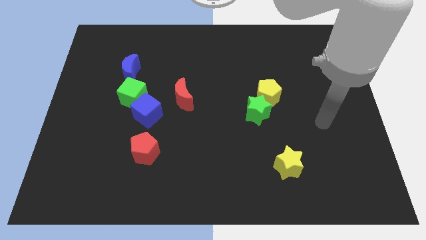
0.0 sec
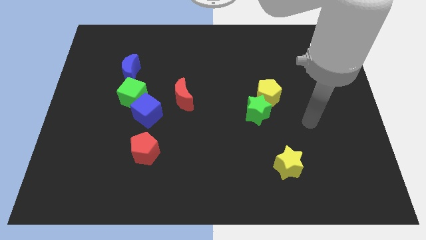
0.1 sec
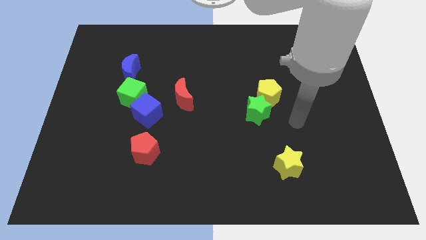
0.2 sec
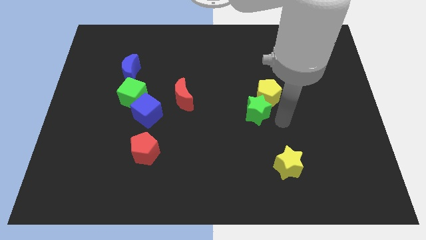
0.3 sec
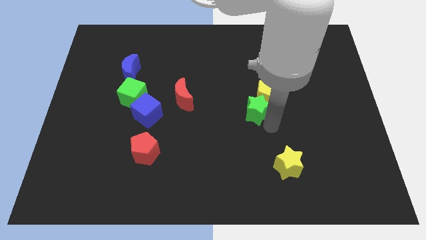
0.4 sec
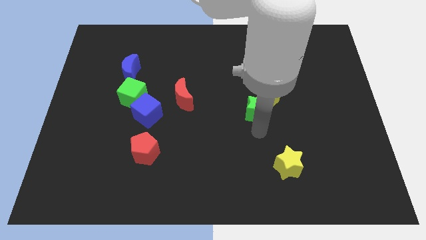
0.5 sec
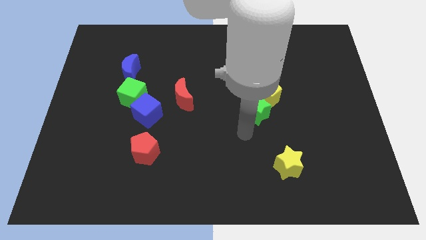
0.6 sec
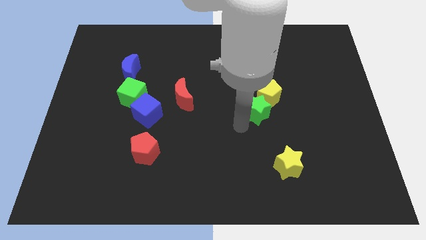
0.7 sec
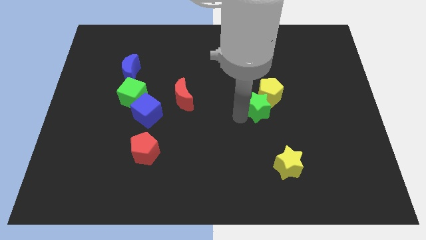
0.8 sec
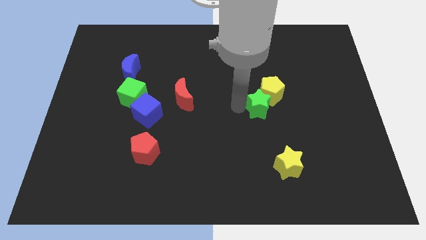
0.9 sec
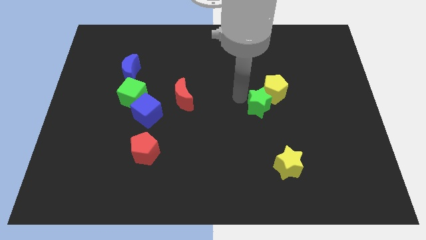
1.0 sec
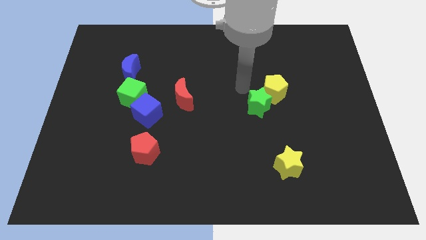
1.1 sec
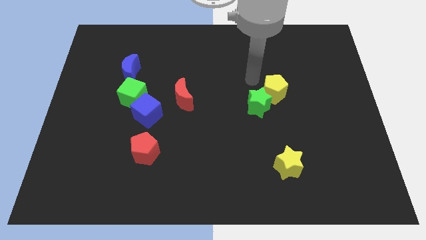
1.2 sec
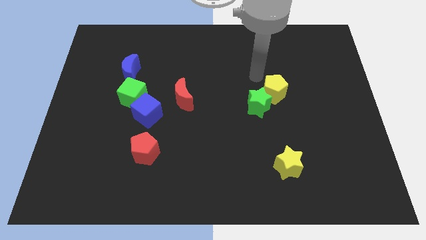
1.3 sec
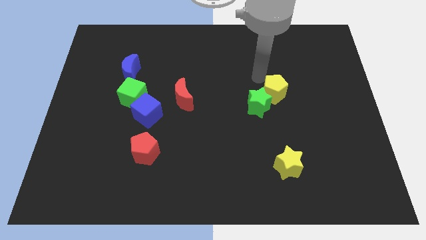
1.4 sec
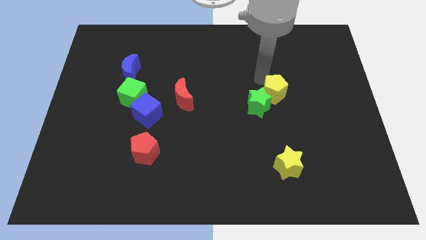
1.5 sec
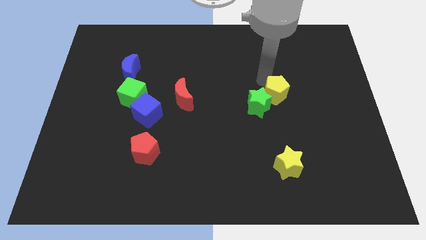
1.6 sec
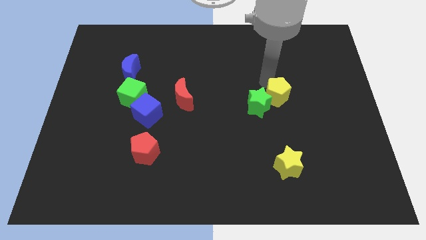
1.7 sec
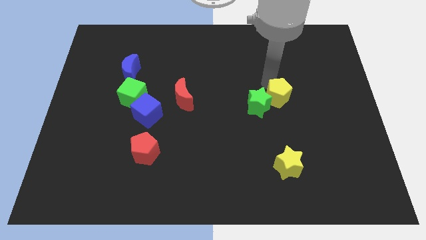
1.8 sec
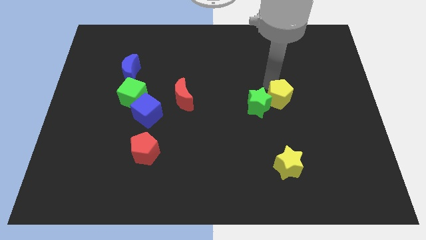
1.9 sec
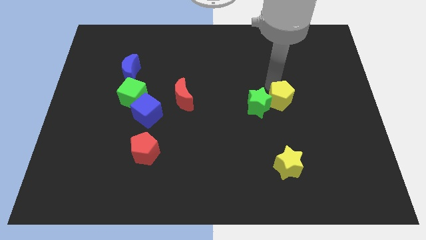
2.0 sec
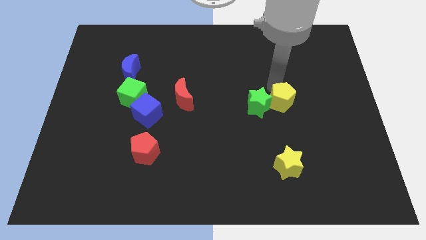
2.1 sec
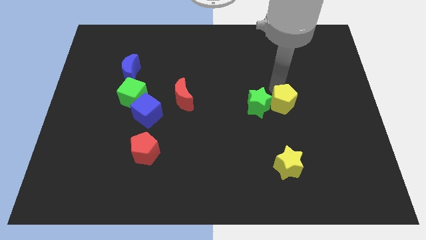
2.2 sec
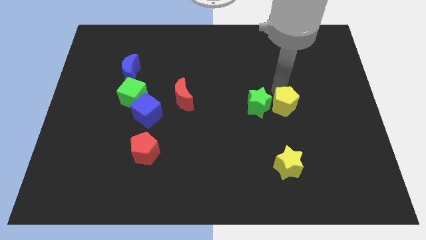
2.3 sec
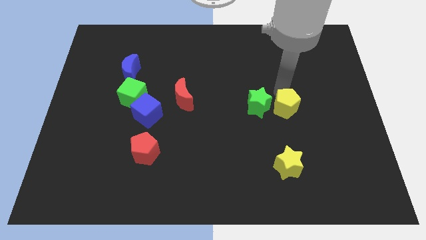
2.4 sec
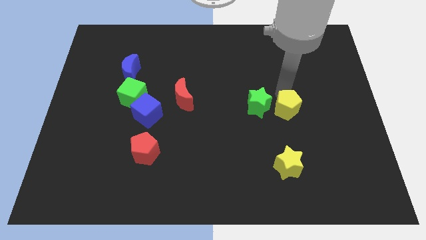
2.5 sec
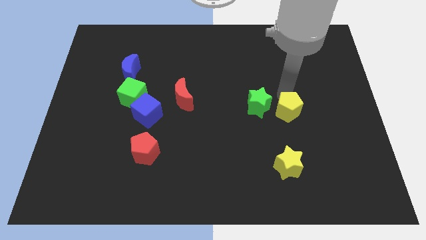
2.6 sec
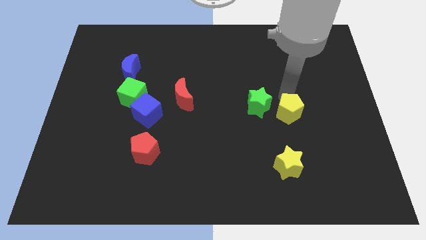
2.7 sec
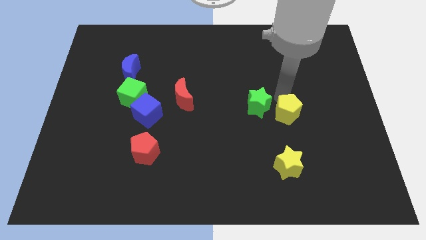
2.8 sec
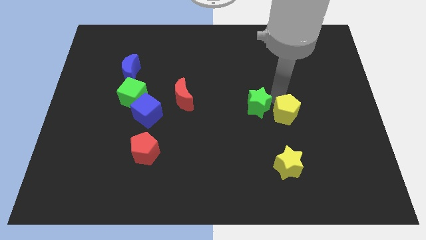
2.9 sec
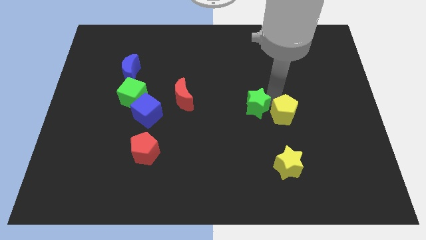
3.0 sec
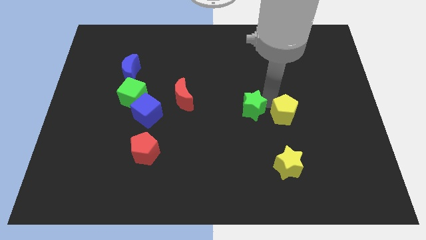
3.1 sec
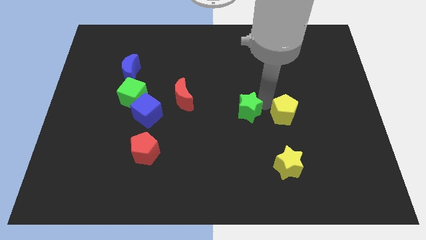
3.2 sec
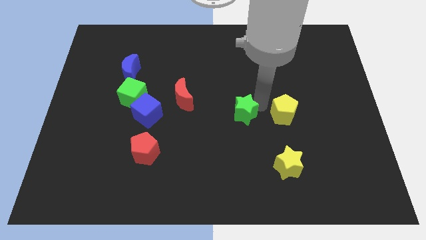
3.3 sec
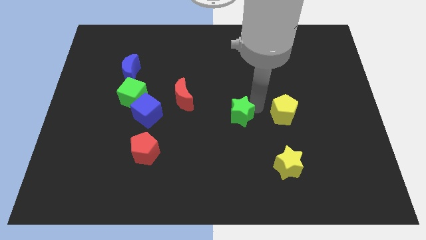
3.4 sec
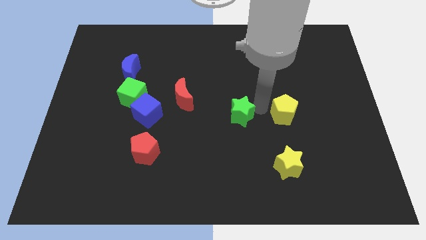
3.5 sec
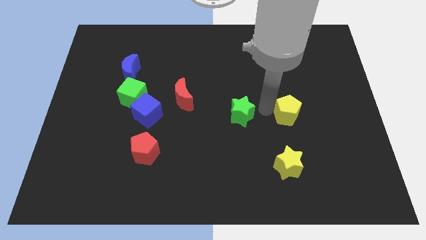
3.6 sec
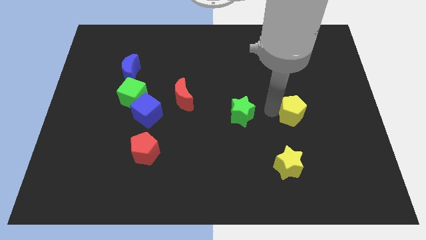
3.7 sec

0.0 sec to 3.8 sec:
slightly move the yellow pentagon downwards and right diagonally

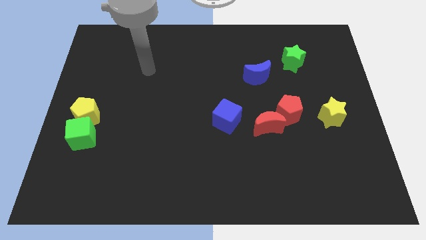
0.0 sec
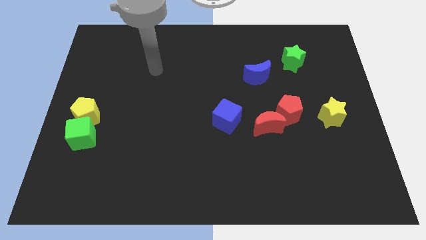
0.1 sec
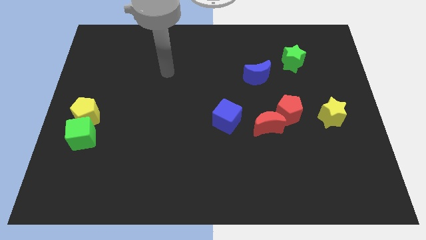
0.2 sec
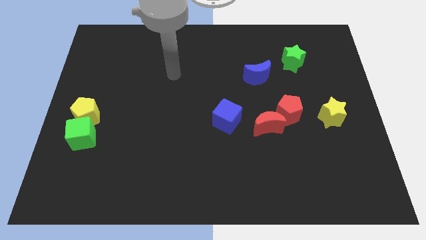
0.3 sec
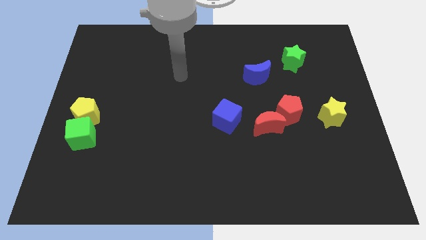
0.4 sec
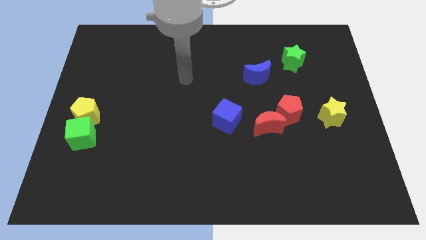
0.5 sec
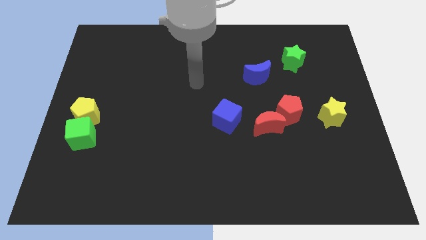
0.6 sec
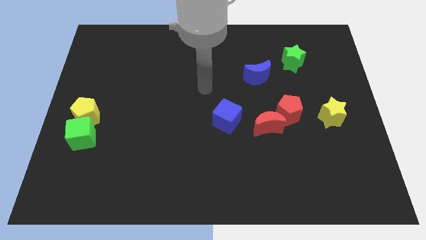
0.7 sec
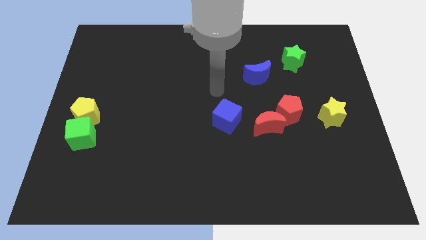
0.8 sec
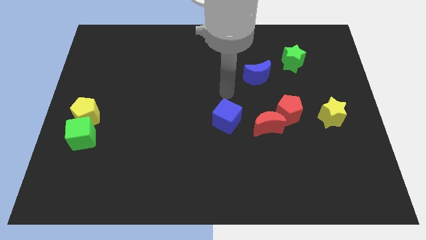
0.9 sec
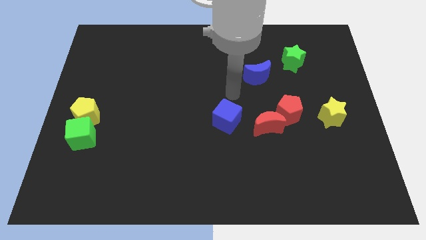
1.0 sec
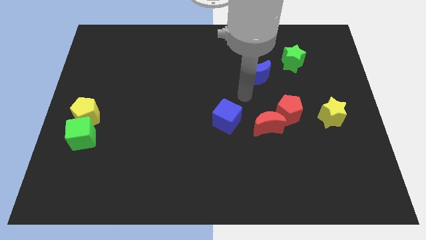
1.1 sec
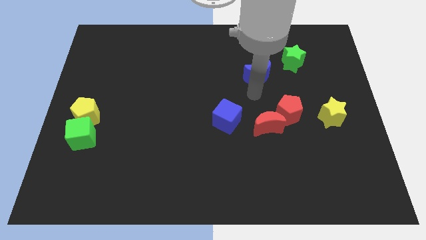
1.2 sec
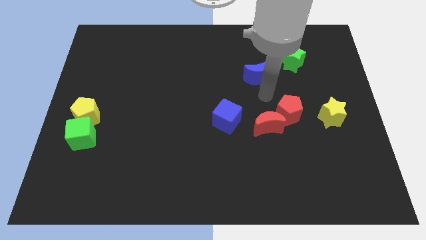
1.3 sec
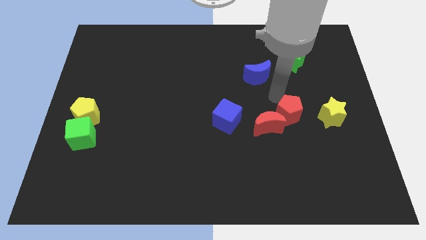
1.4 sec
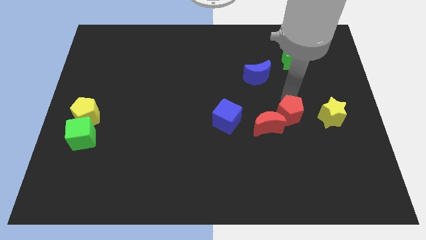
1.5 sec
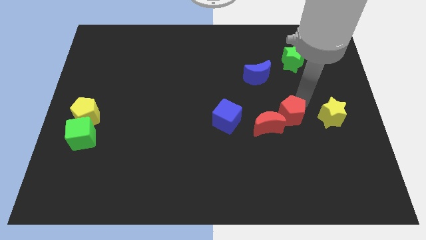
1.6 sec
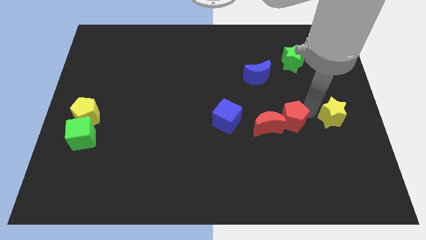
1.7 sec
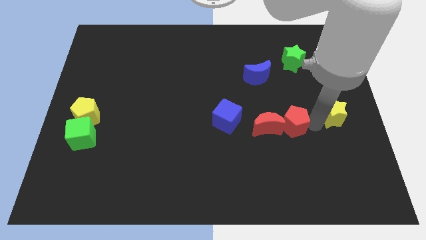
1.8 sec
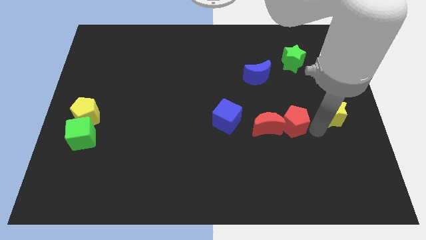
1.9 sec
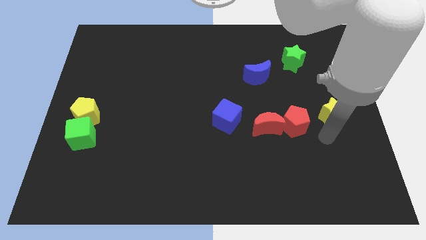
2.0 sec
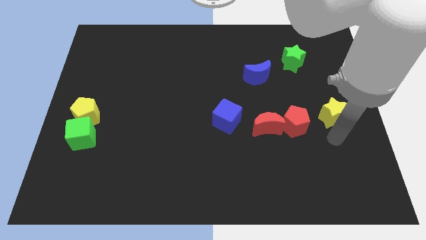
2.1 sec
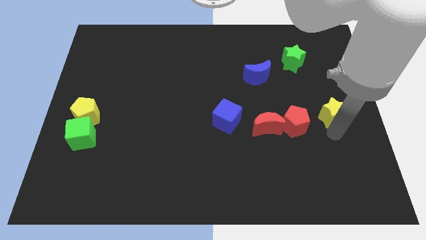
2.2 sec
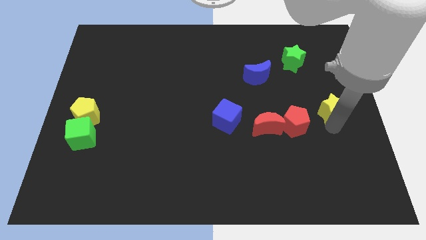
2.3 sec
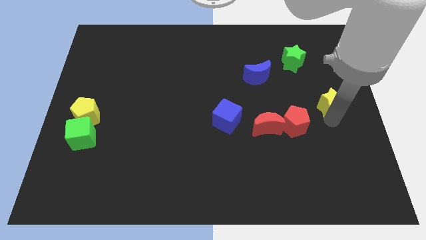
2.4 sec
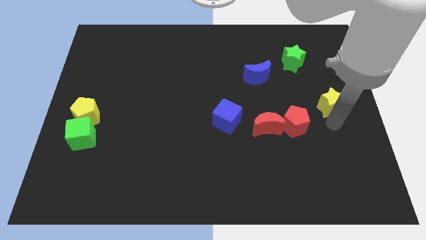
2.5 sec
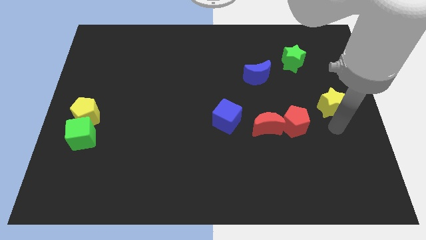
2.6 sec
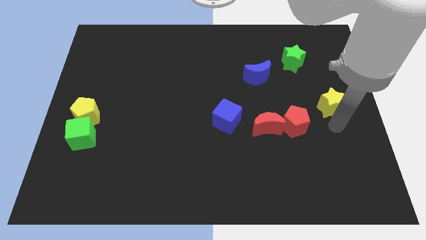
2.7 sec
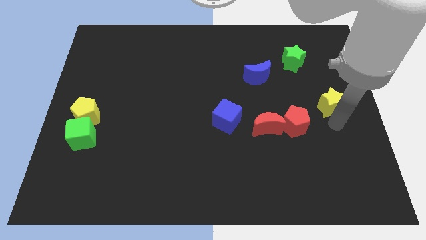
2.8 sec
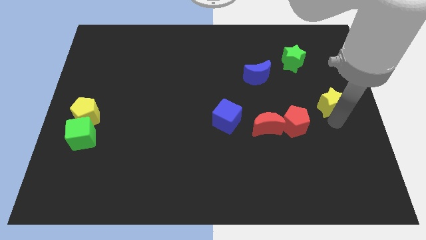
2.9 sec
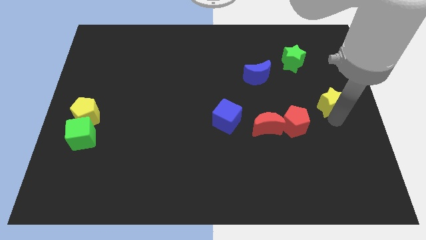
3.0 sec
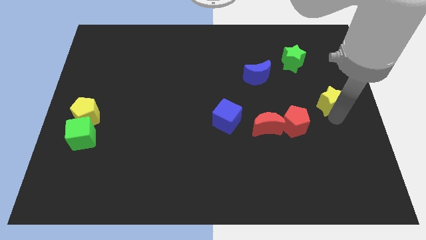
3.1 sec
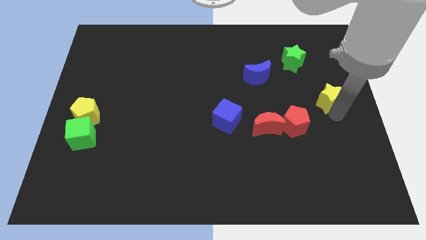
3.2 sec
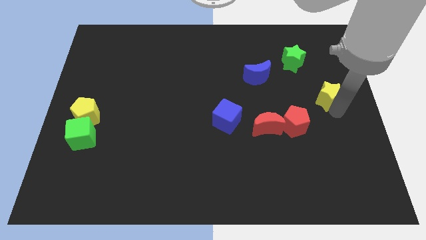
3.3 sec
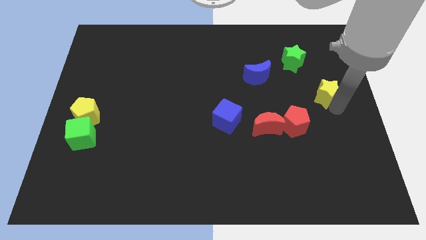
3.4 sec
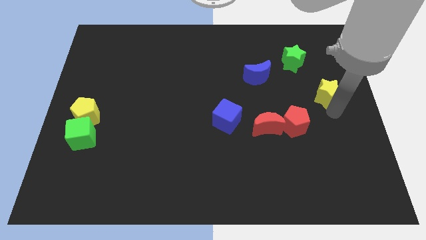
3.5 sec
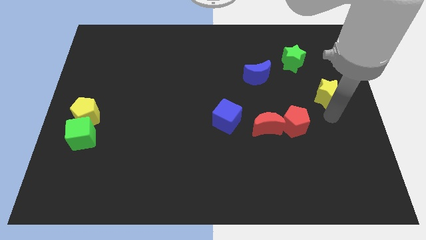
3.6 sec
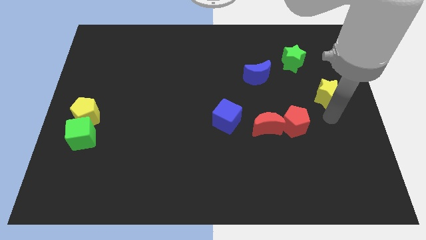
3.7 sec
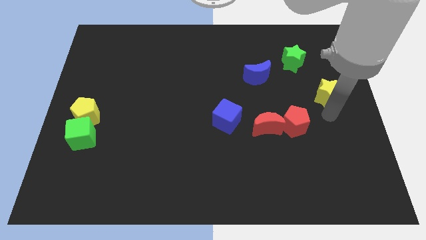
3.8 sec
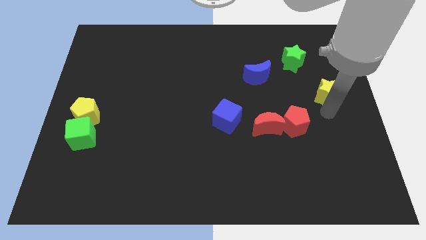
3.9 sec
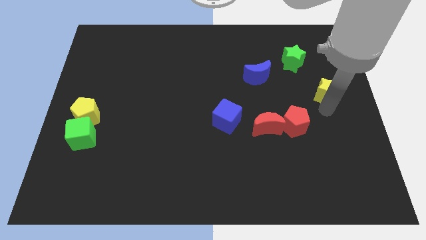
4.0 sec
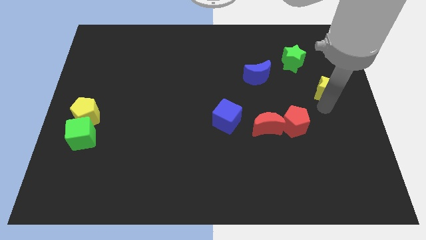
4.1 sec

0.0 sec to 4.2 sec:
push the yellow star upwards somewhat

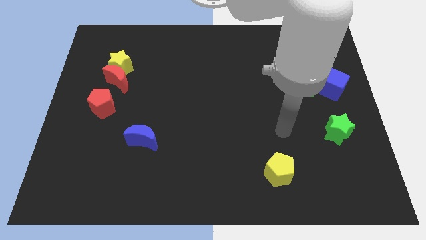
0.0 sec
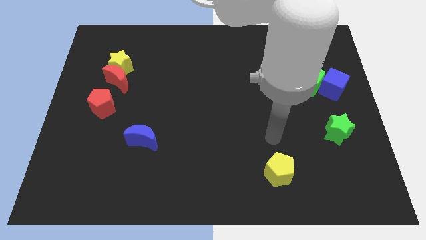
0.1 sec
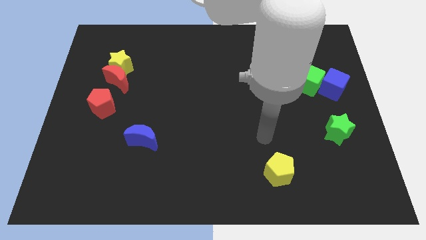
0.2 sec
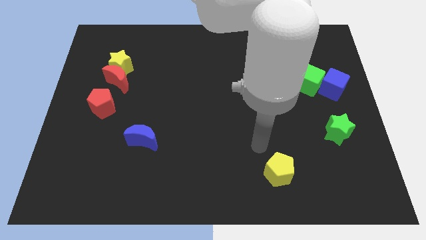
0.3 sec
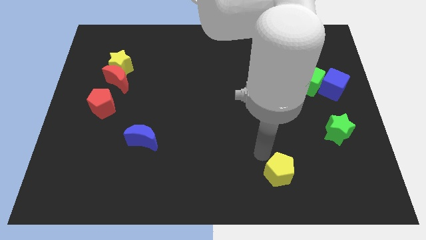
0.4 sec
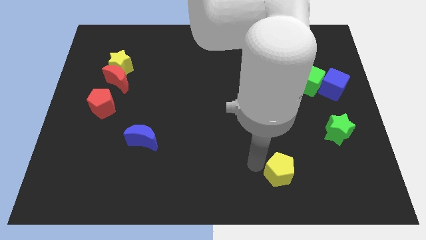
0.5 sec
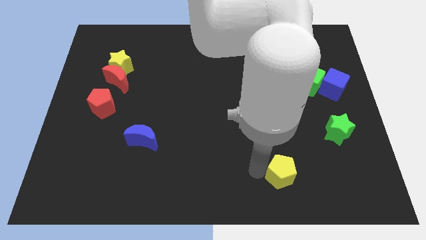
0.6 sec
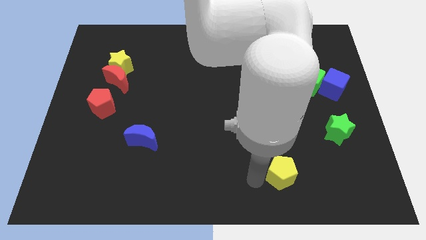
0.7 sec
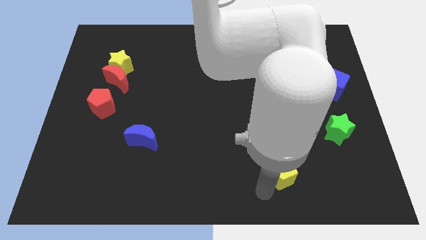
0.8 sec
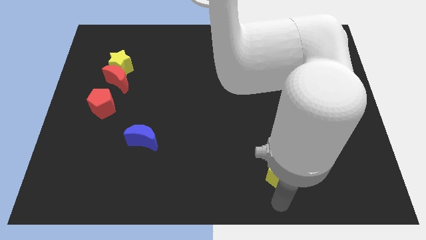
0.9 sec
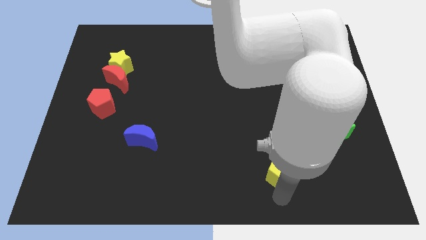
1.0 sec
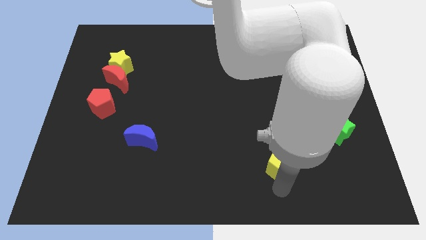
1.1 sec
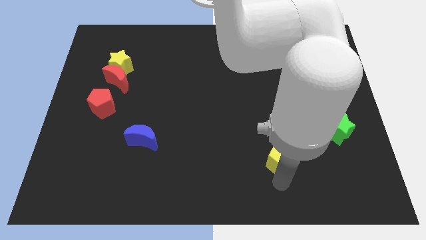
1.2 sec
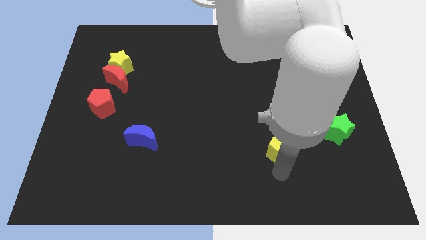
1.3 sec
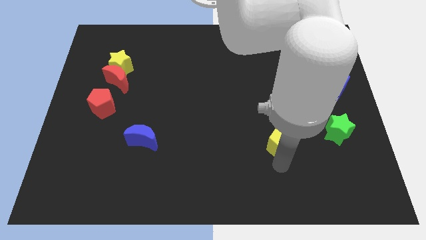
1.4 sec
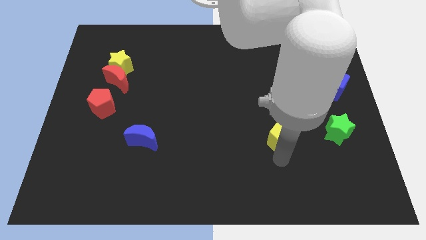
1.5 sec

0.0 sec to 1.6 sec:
slide the yellow pentagon a little bit upwards
